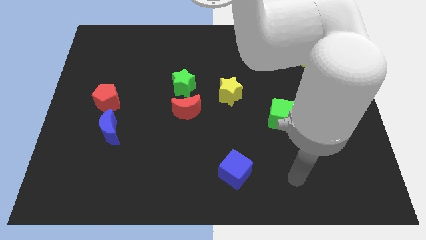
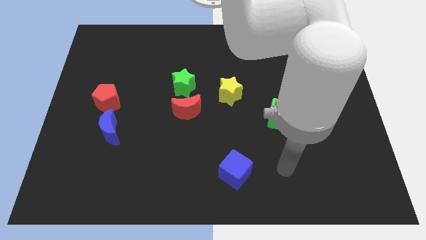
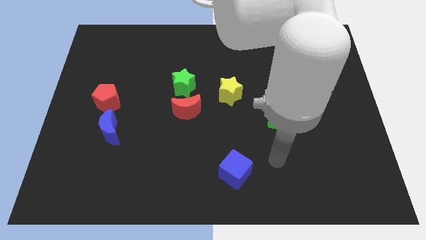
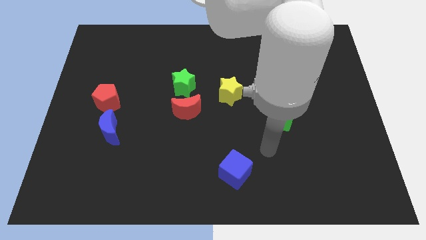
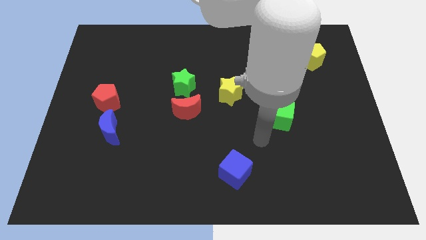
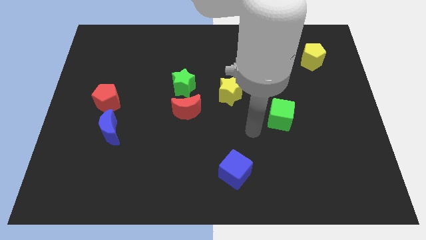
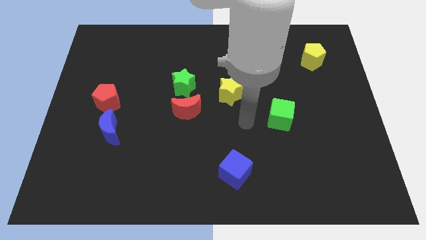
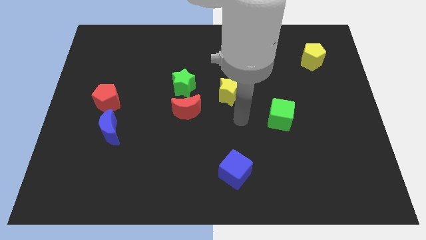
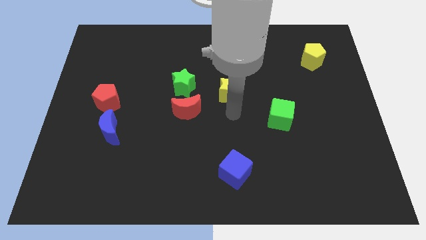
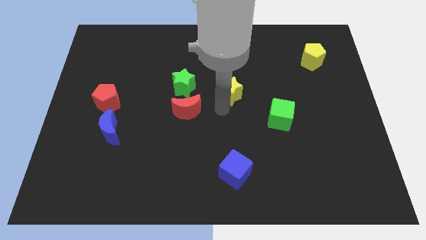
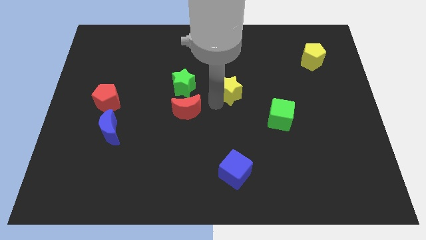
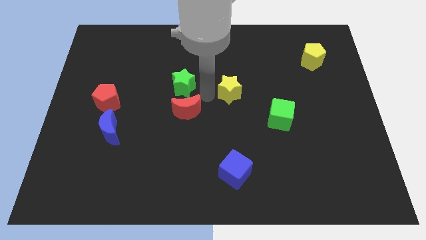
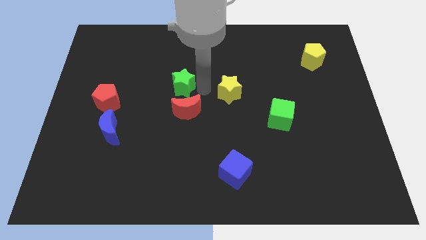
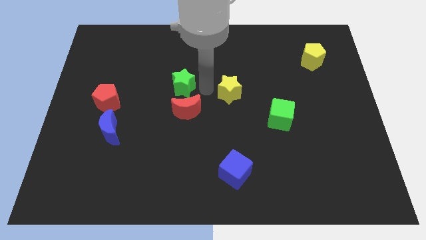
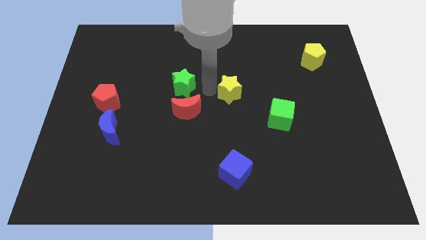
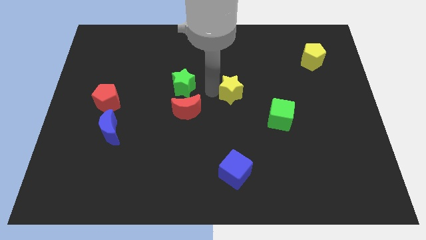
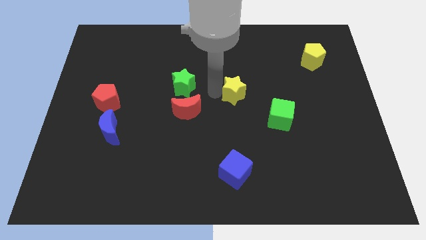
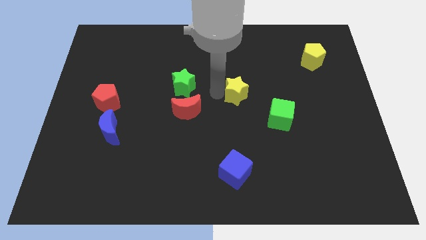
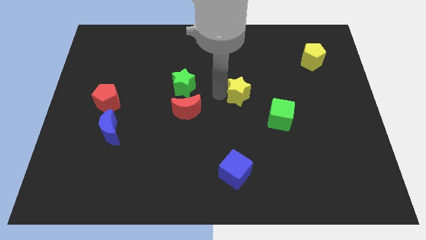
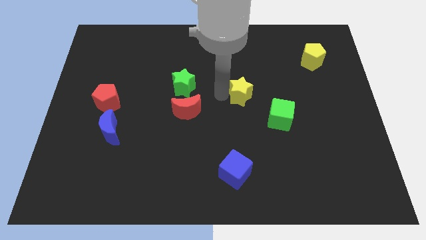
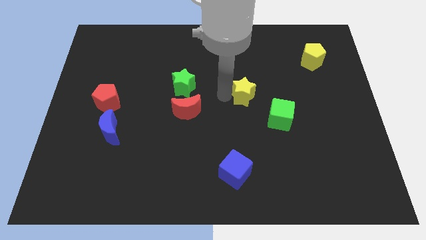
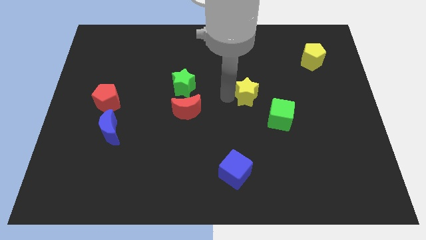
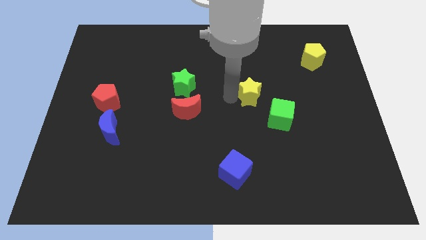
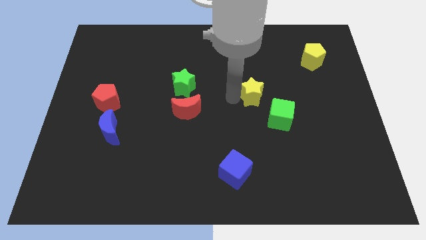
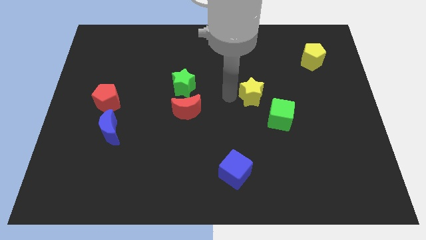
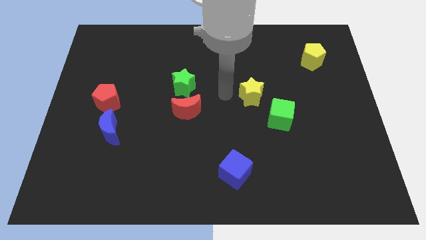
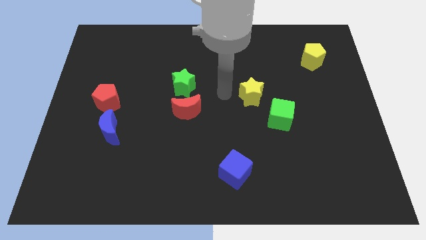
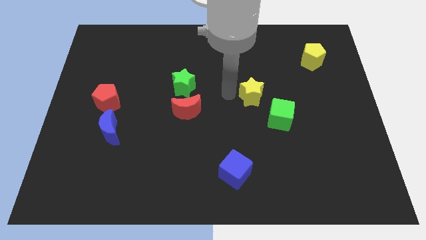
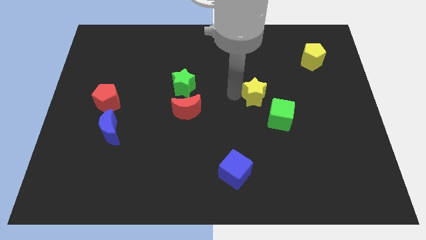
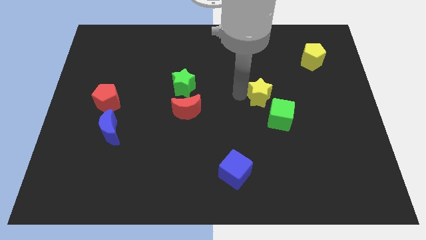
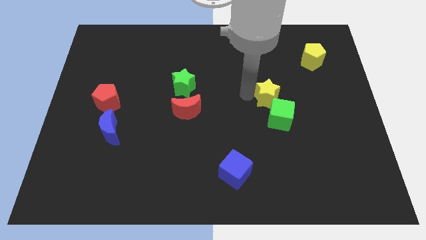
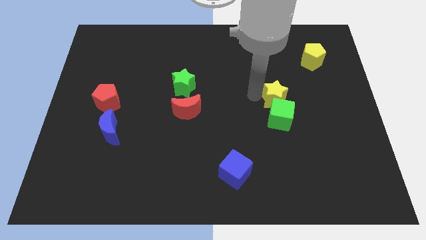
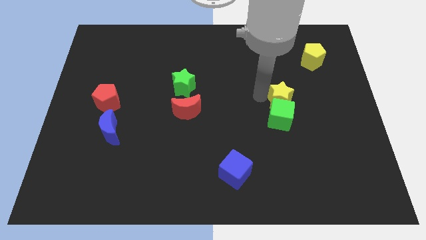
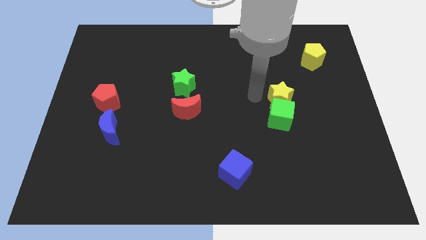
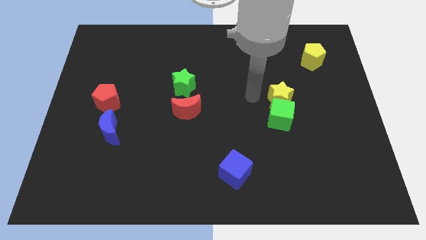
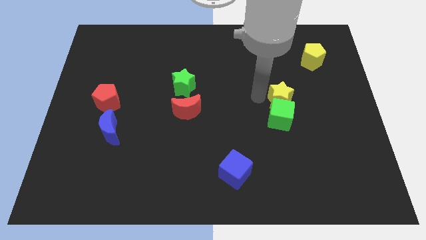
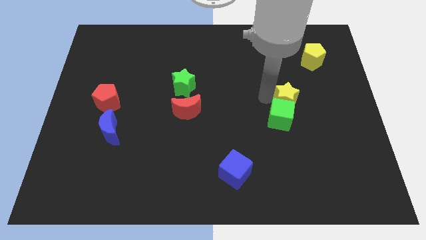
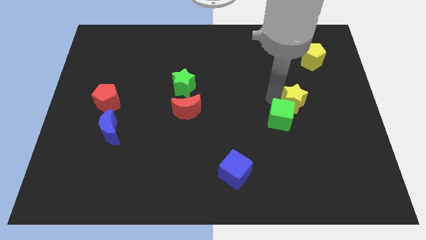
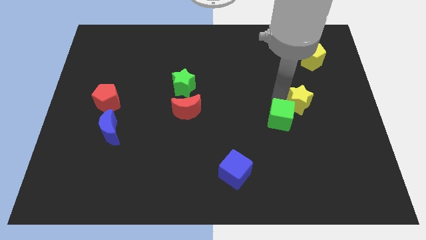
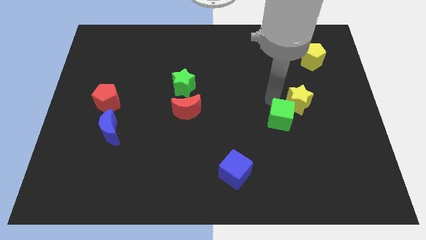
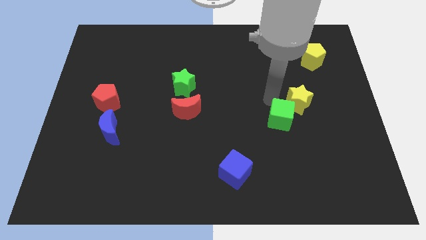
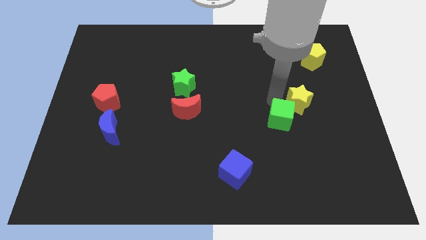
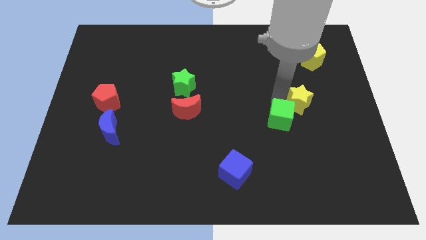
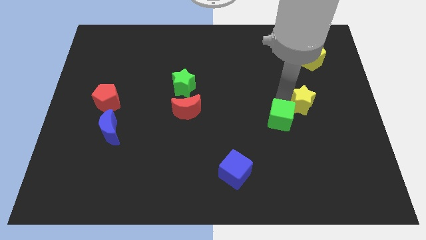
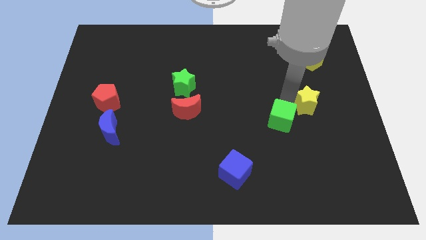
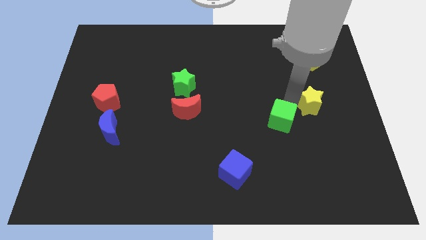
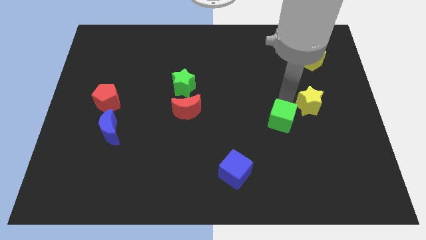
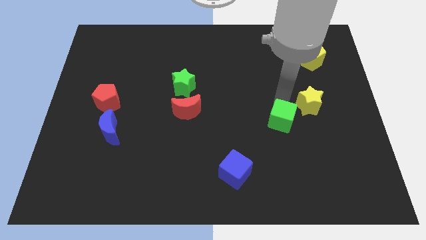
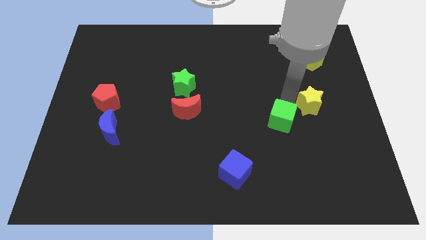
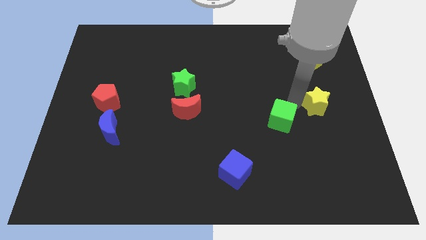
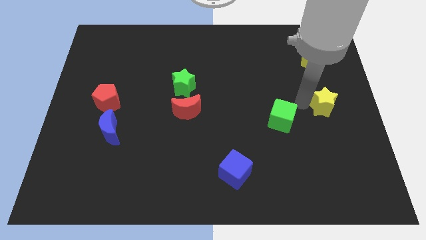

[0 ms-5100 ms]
slide the yellow star to the center right

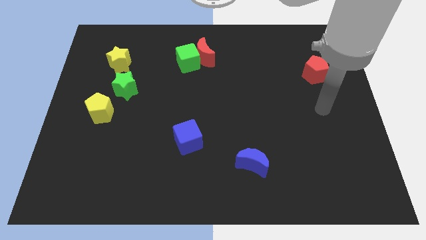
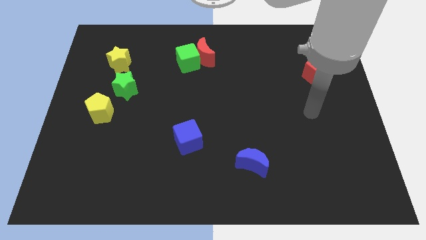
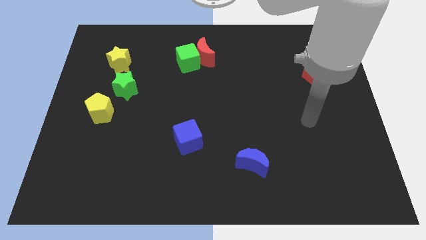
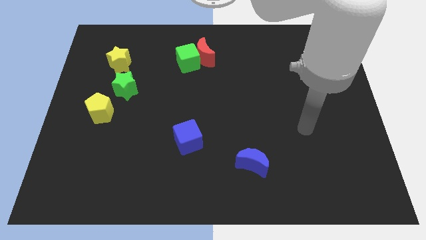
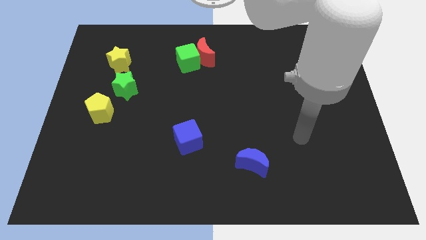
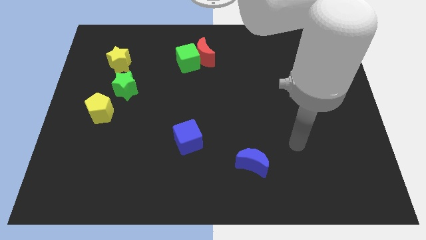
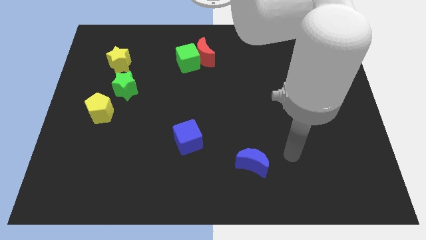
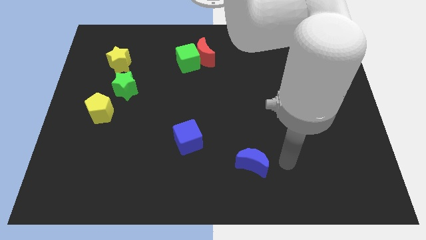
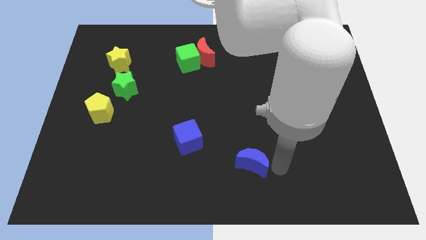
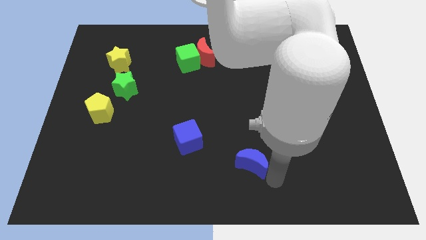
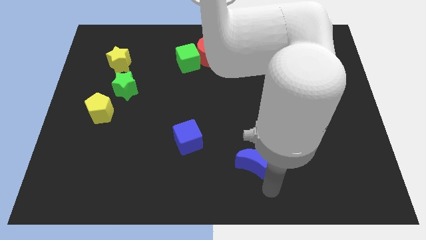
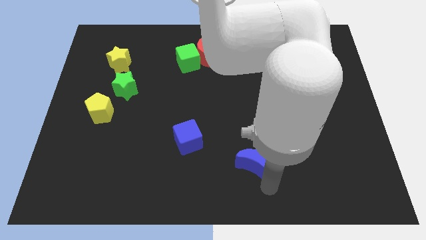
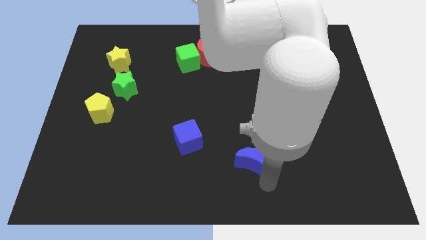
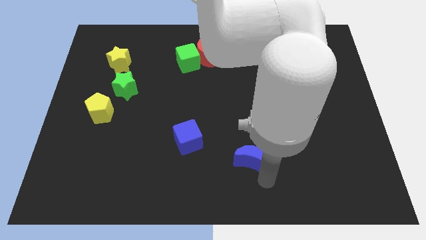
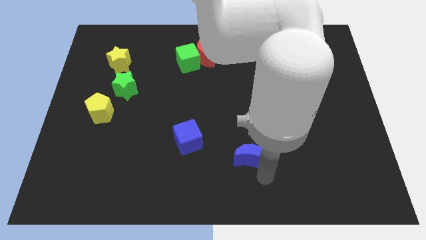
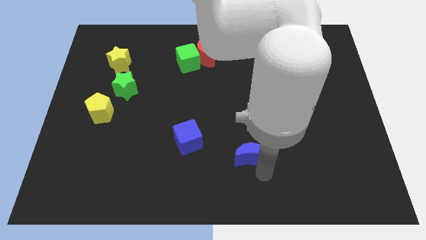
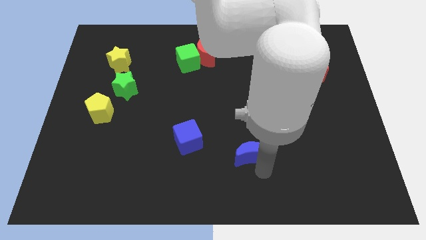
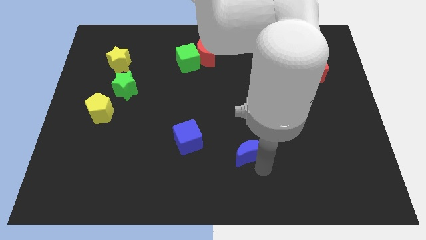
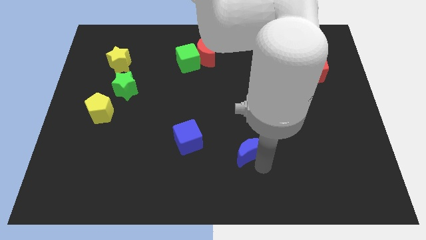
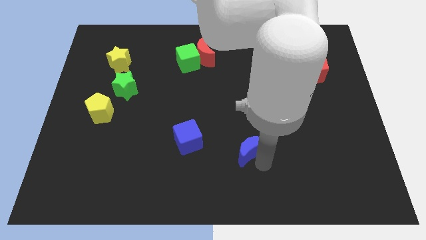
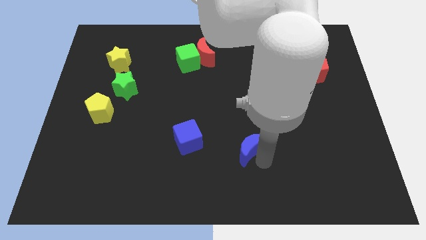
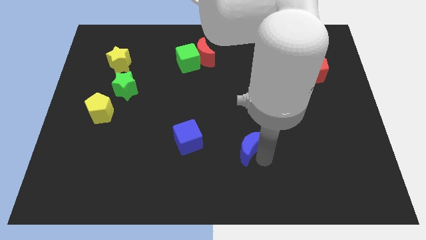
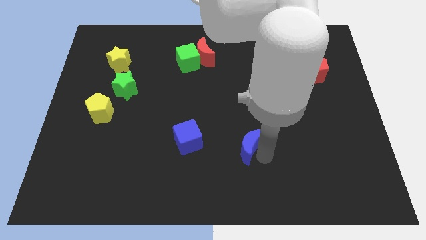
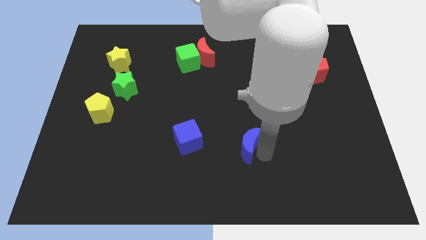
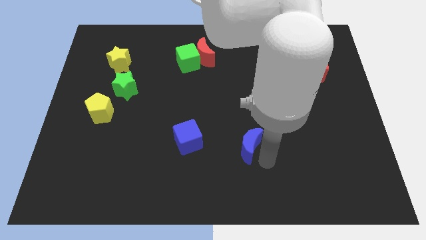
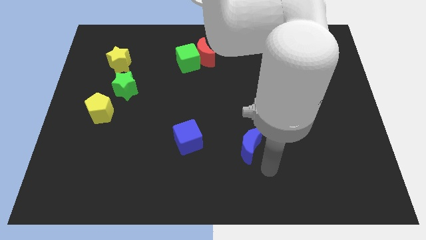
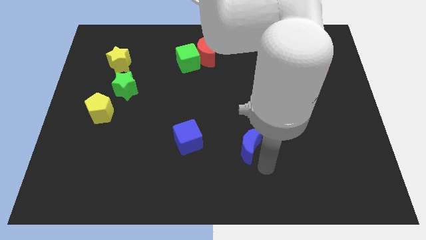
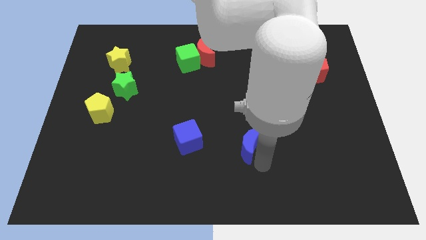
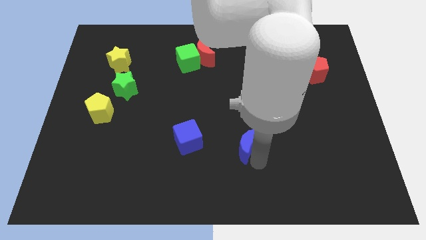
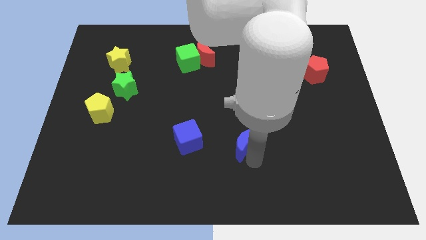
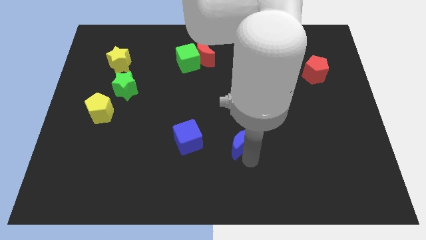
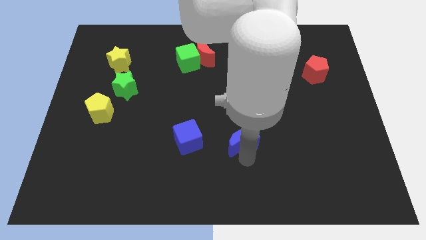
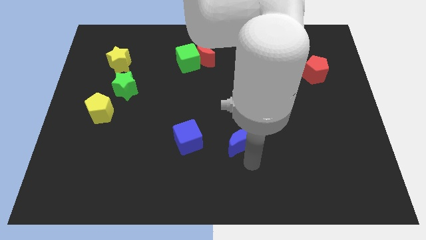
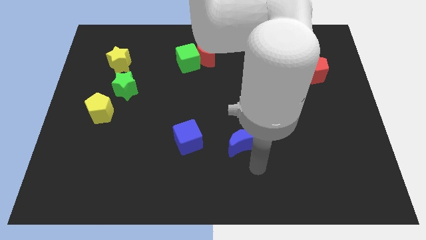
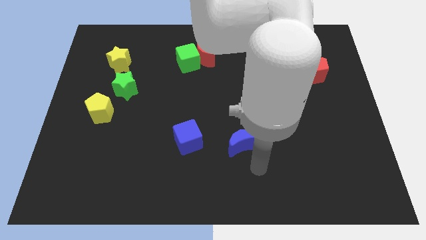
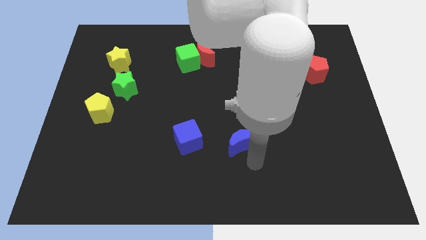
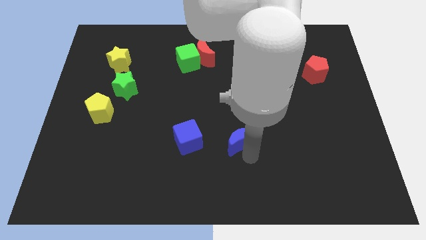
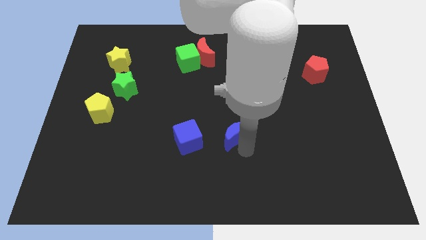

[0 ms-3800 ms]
push the blue moon to the center
